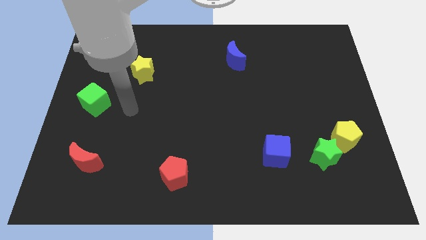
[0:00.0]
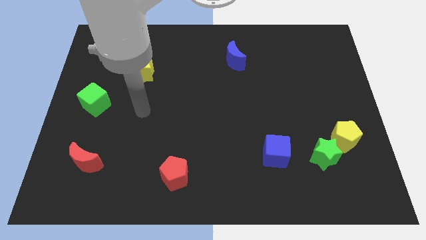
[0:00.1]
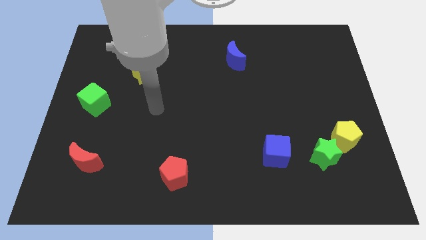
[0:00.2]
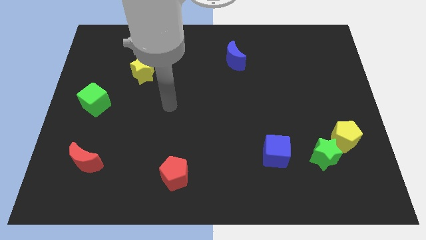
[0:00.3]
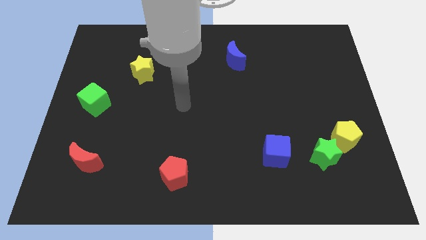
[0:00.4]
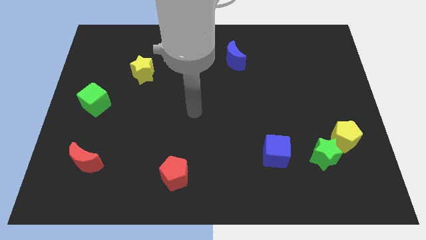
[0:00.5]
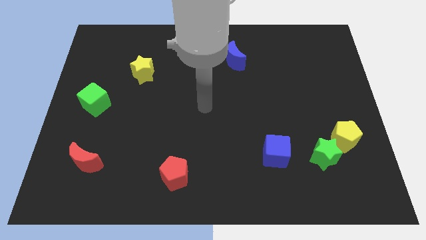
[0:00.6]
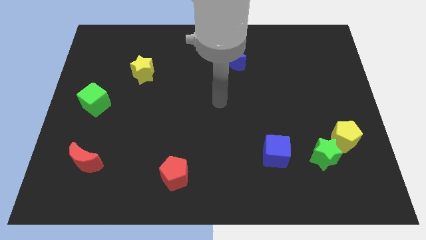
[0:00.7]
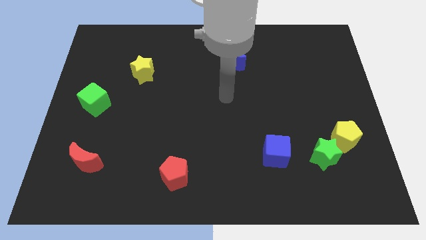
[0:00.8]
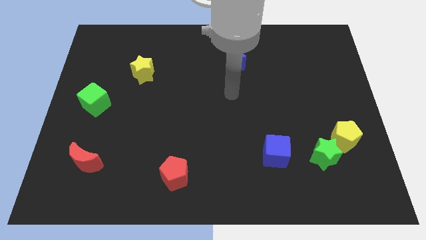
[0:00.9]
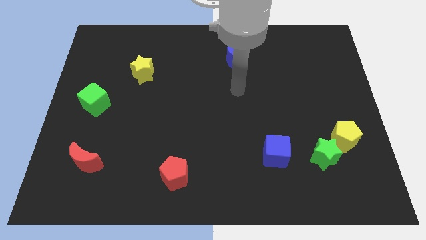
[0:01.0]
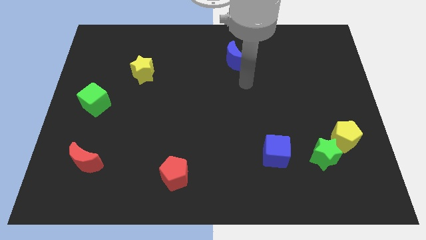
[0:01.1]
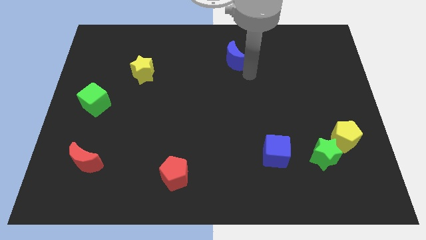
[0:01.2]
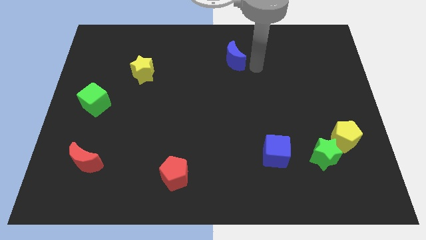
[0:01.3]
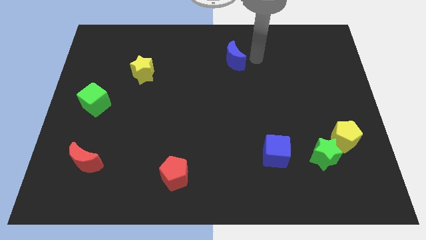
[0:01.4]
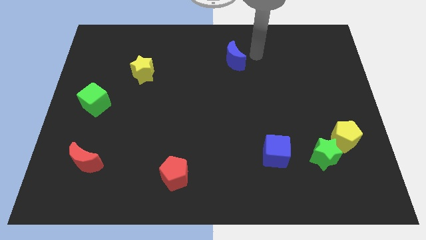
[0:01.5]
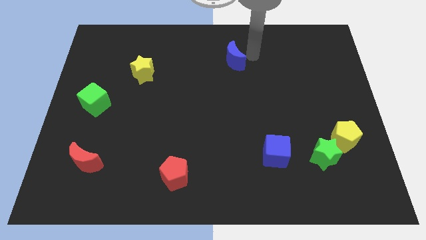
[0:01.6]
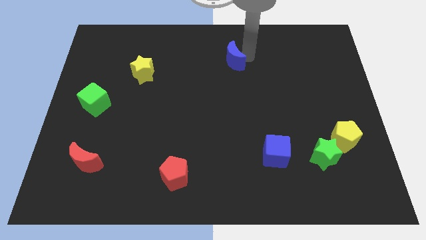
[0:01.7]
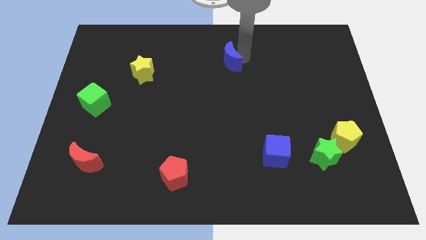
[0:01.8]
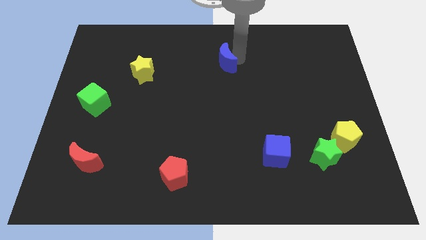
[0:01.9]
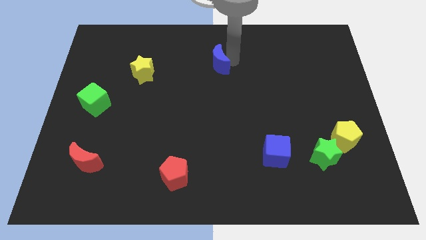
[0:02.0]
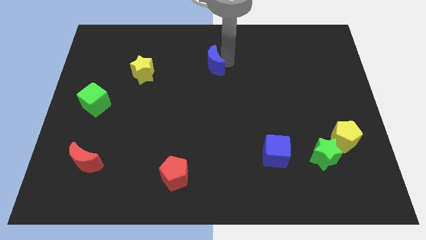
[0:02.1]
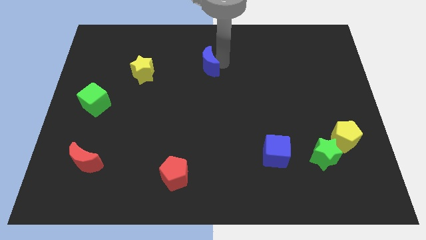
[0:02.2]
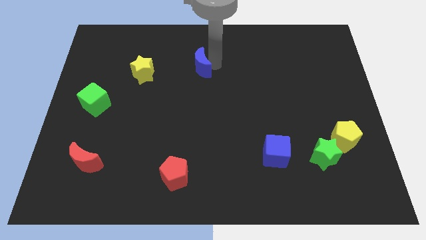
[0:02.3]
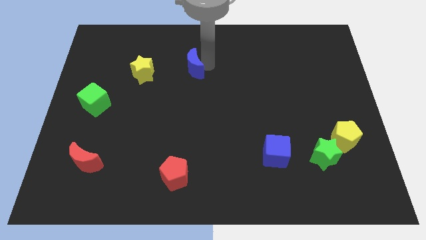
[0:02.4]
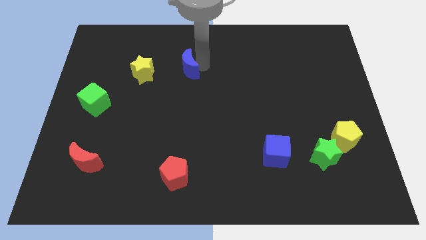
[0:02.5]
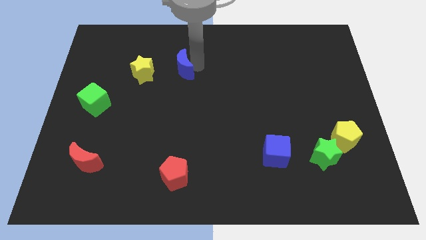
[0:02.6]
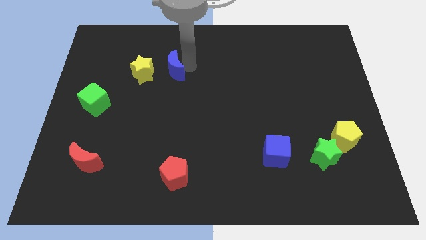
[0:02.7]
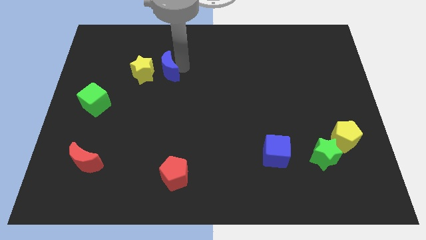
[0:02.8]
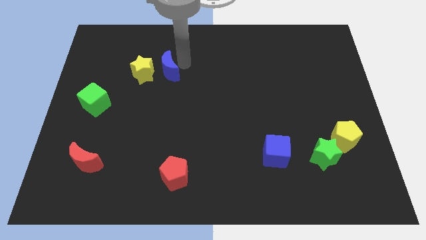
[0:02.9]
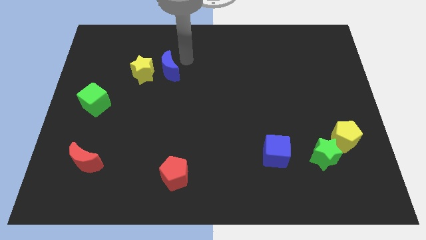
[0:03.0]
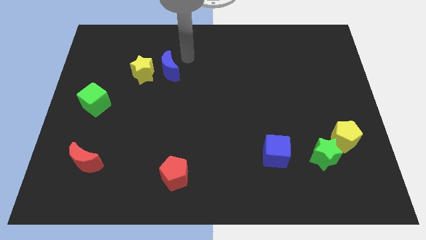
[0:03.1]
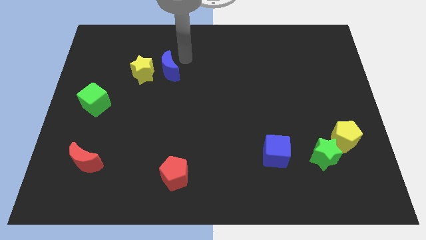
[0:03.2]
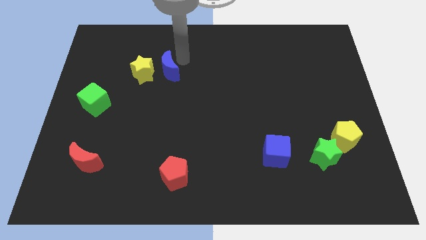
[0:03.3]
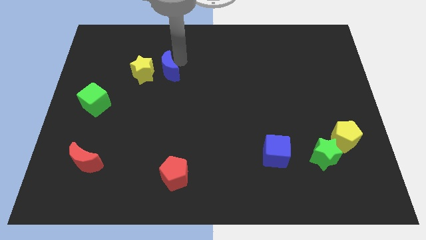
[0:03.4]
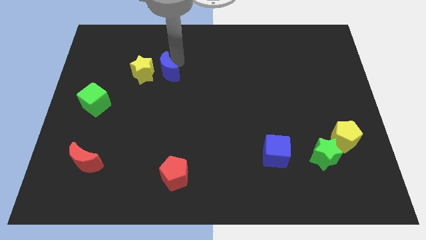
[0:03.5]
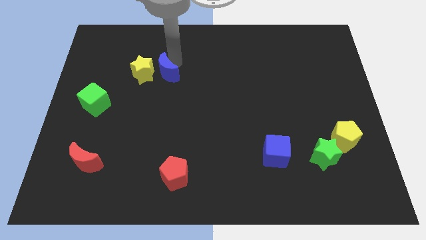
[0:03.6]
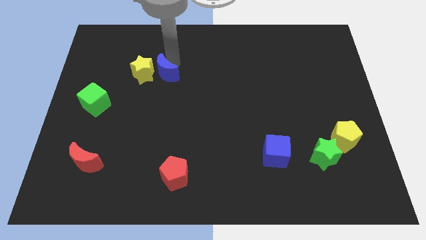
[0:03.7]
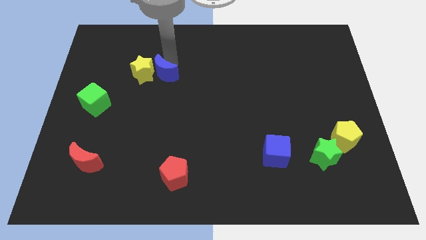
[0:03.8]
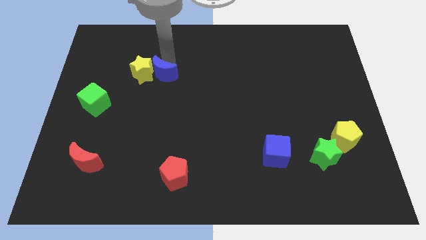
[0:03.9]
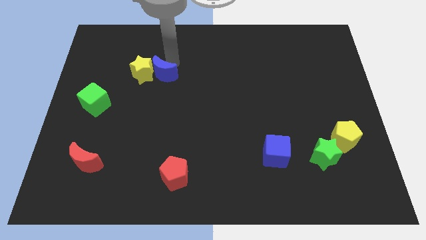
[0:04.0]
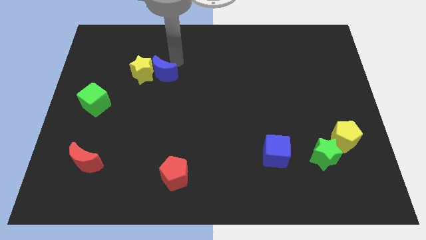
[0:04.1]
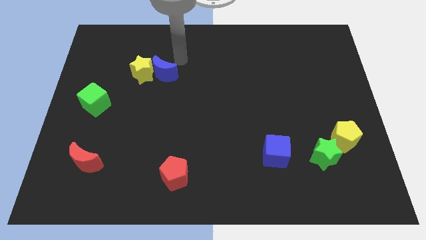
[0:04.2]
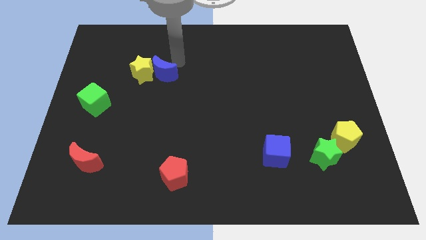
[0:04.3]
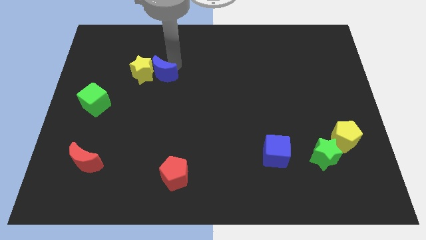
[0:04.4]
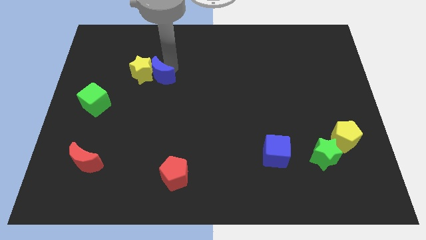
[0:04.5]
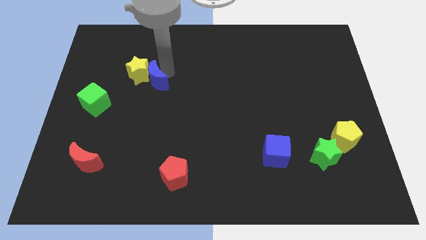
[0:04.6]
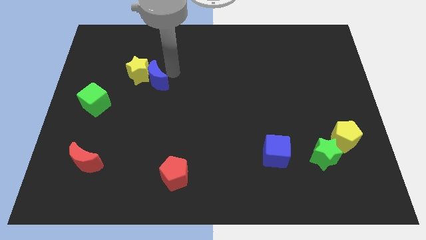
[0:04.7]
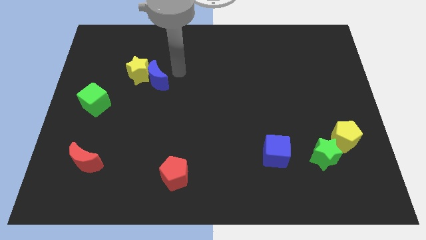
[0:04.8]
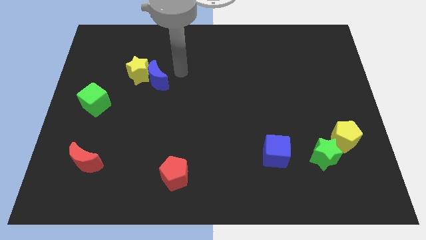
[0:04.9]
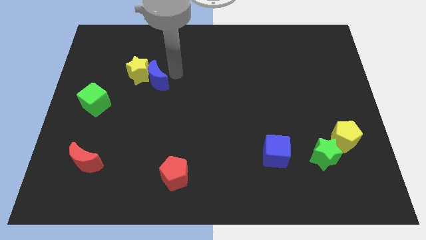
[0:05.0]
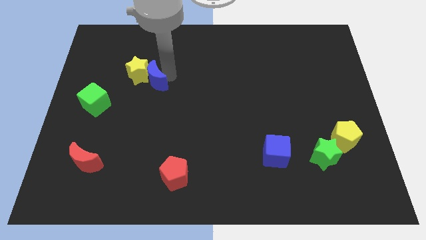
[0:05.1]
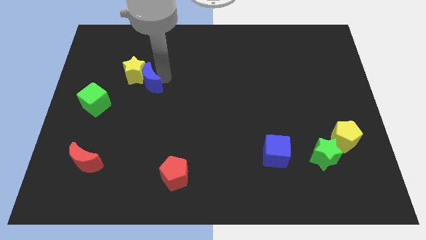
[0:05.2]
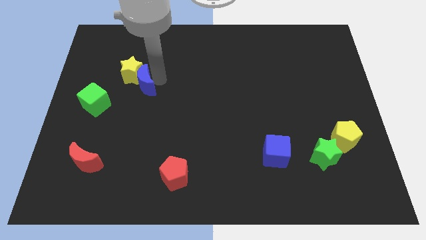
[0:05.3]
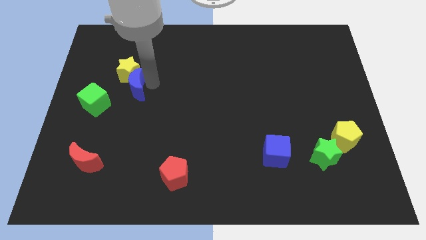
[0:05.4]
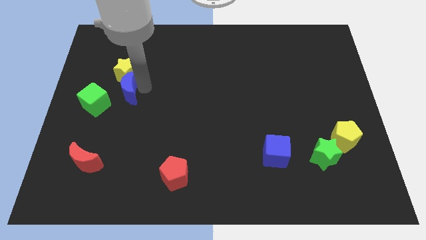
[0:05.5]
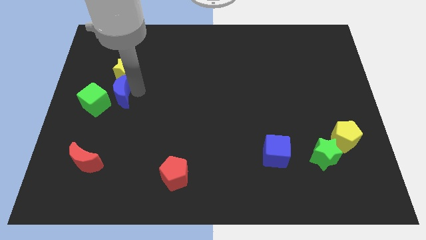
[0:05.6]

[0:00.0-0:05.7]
slide the blue moon diagonally down and to the left of the yellow star
